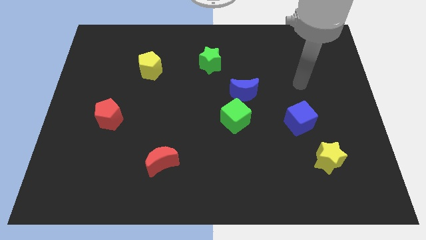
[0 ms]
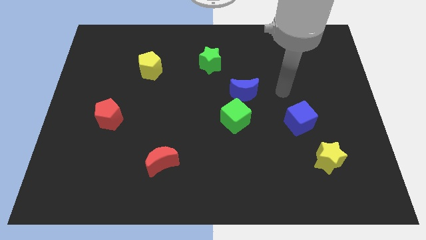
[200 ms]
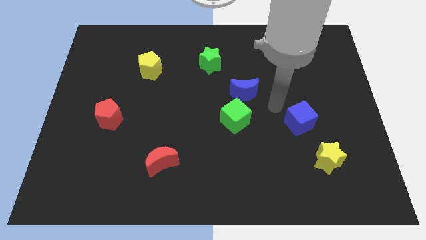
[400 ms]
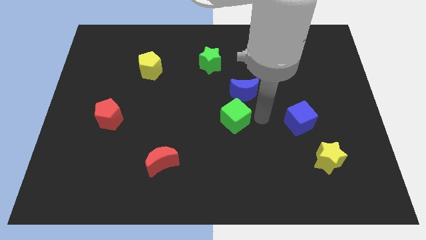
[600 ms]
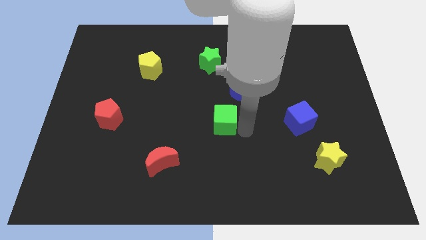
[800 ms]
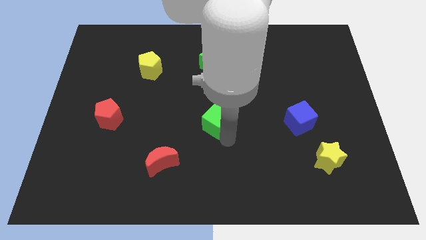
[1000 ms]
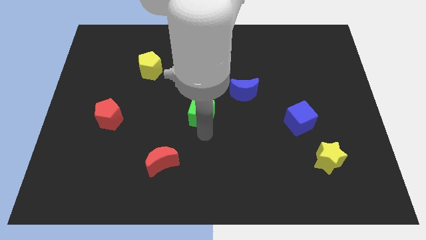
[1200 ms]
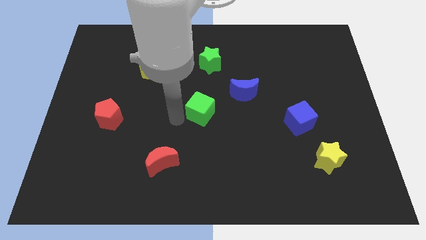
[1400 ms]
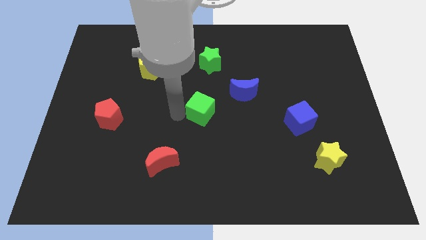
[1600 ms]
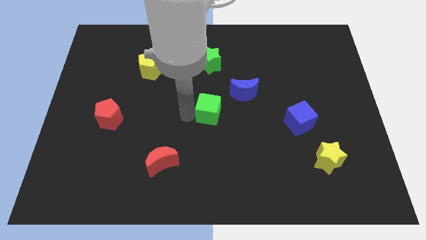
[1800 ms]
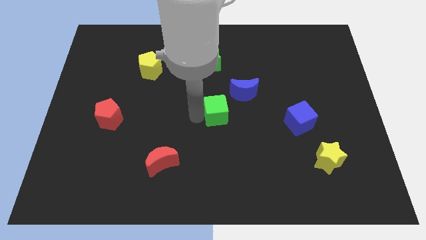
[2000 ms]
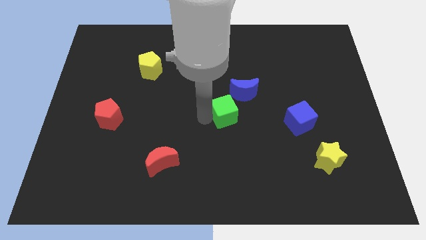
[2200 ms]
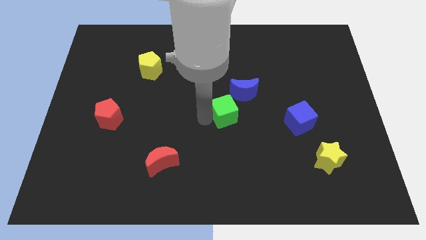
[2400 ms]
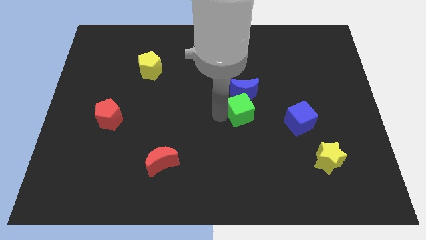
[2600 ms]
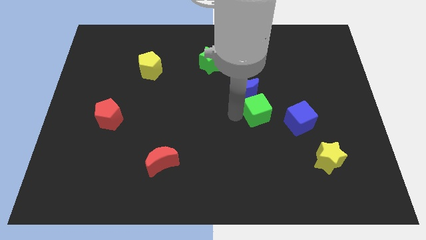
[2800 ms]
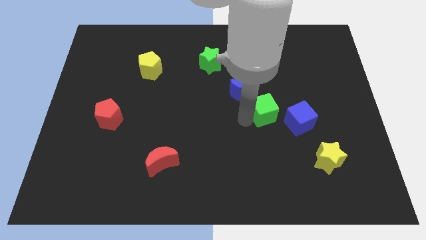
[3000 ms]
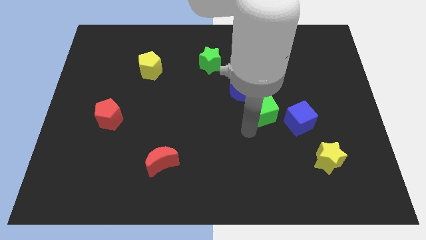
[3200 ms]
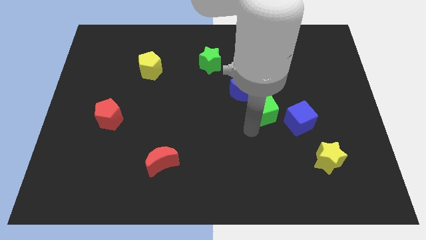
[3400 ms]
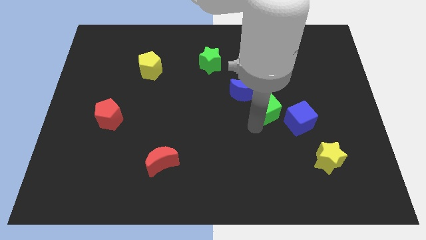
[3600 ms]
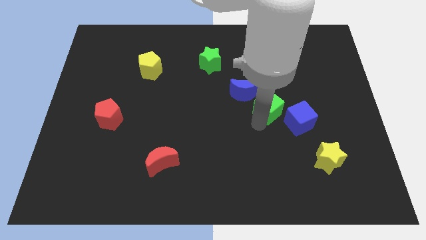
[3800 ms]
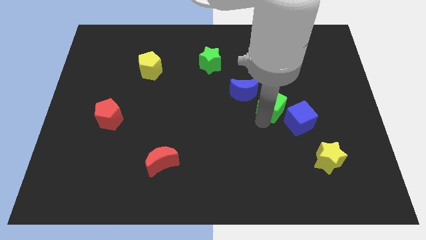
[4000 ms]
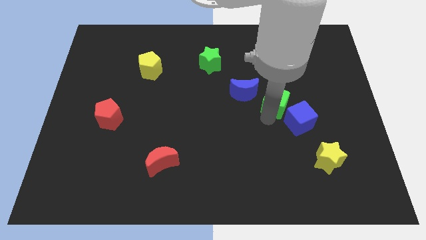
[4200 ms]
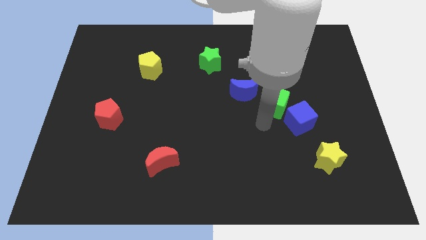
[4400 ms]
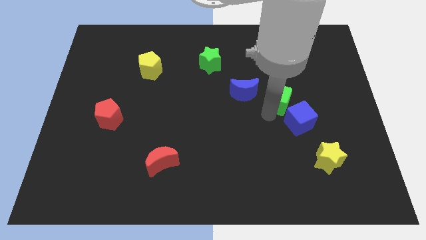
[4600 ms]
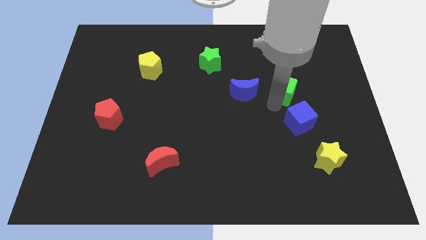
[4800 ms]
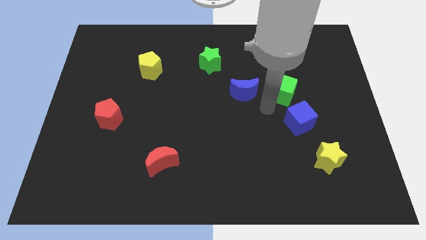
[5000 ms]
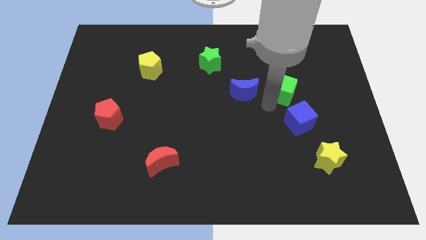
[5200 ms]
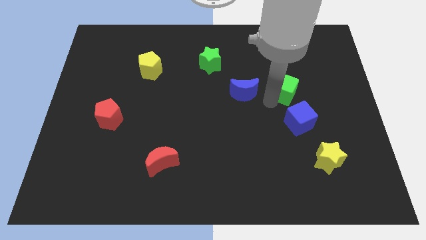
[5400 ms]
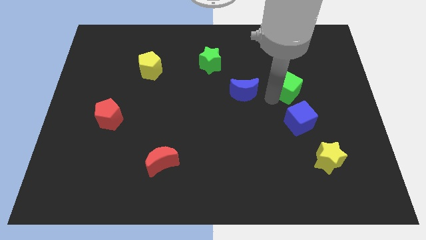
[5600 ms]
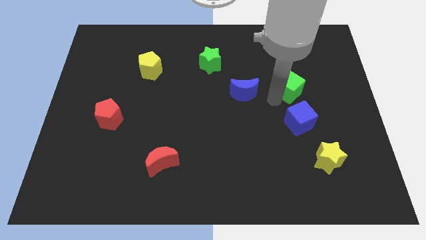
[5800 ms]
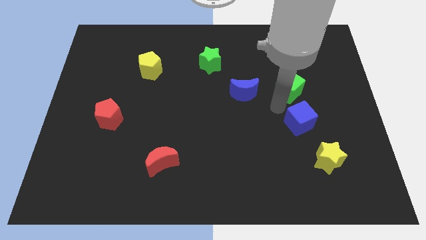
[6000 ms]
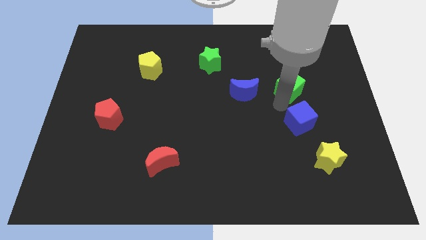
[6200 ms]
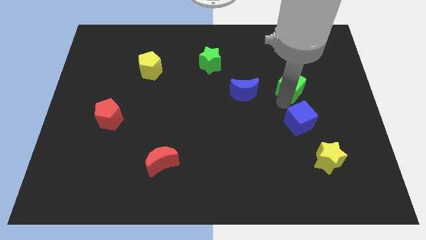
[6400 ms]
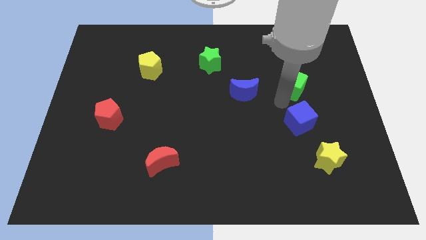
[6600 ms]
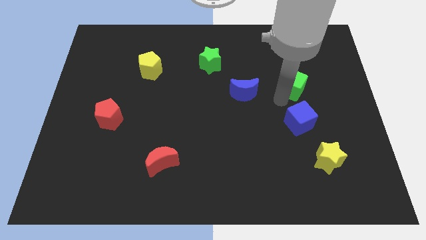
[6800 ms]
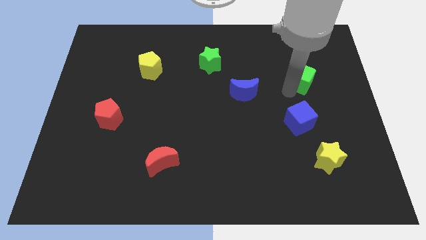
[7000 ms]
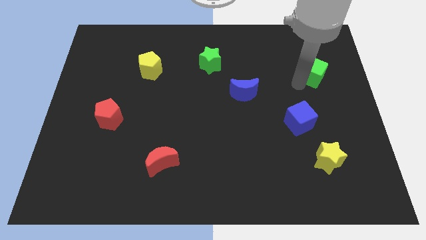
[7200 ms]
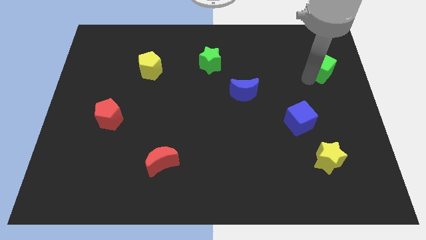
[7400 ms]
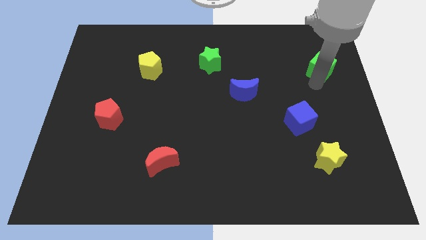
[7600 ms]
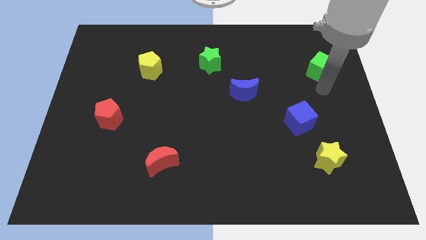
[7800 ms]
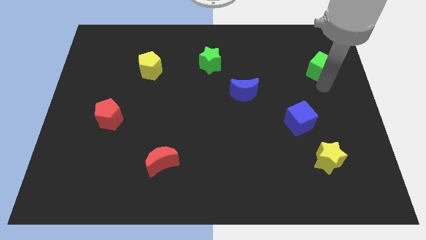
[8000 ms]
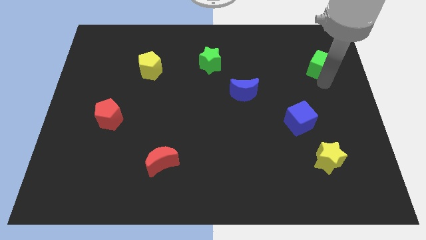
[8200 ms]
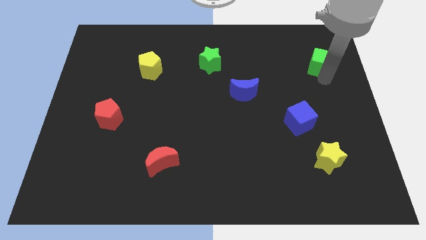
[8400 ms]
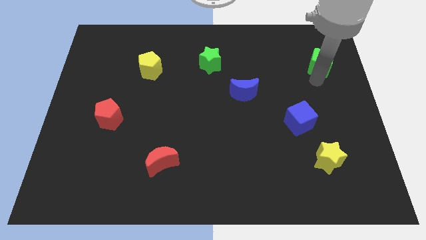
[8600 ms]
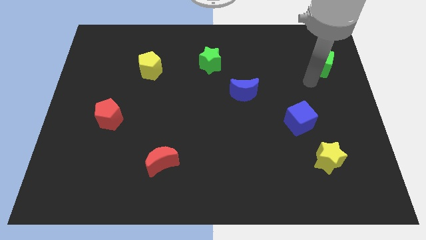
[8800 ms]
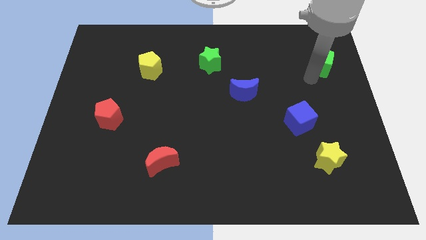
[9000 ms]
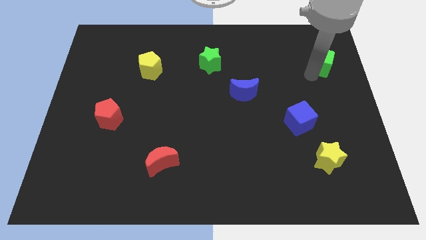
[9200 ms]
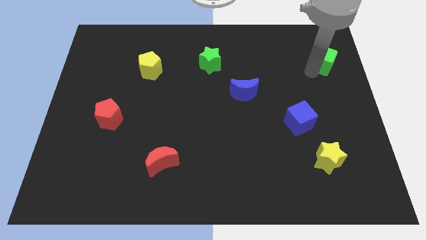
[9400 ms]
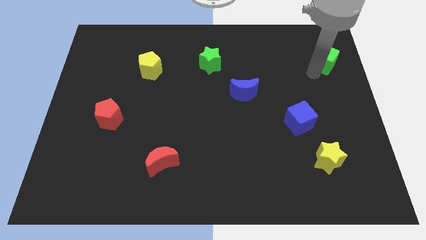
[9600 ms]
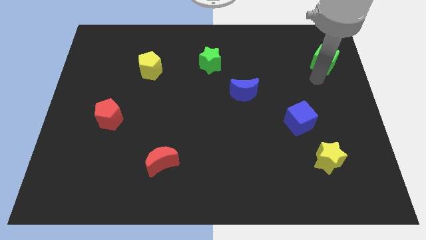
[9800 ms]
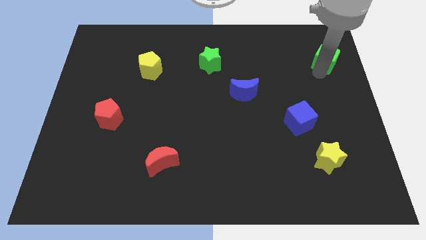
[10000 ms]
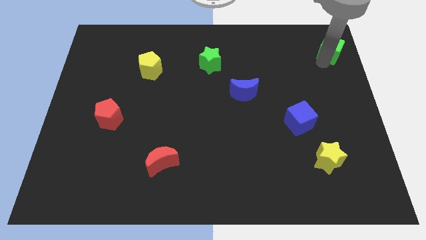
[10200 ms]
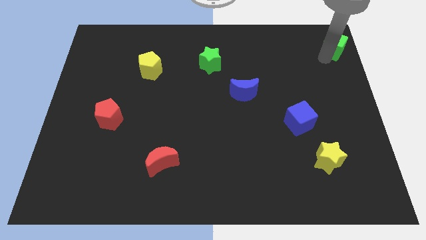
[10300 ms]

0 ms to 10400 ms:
move the green cube to the upper right corner

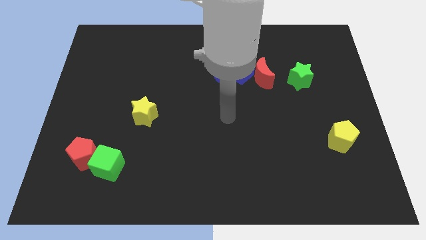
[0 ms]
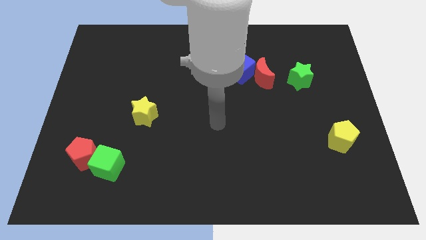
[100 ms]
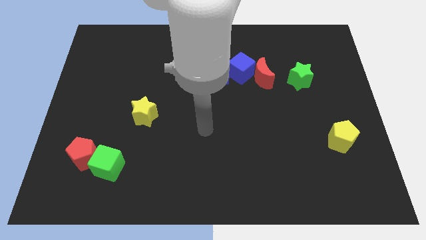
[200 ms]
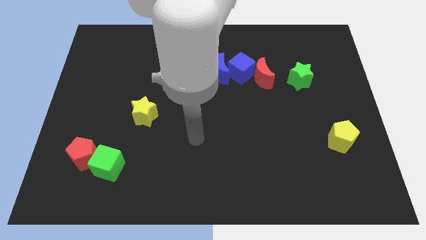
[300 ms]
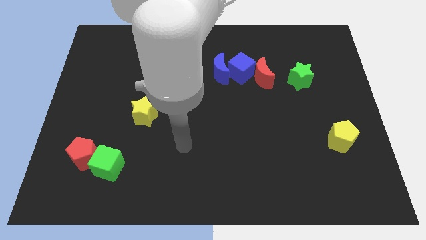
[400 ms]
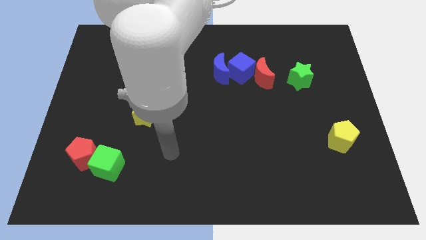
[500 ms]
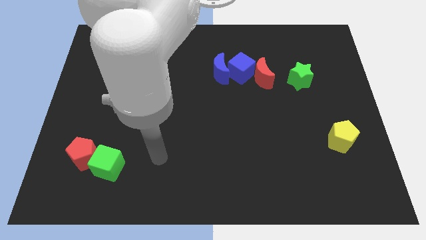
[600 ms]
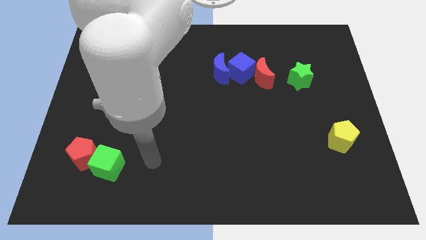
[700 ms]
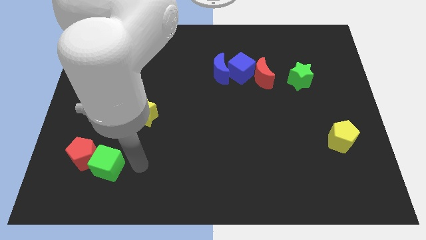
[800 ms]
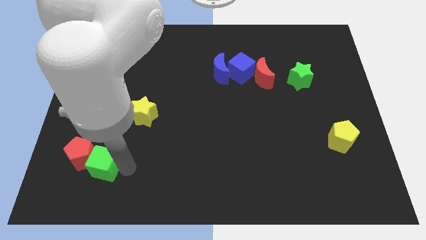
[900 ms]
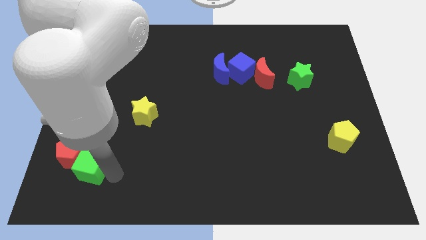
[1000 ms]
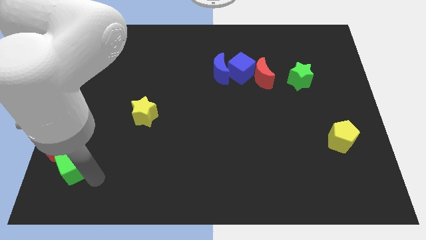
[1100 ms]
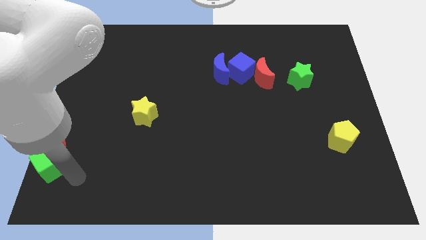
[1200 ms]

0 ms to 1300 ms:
slide the red pentagon to the center left
